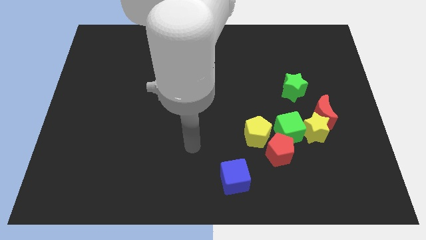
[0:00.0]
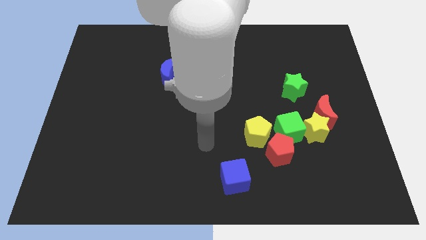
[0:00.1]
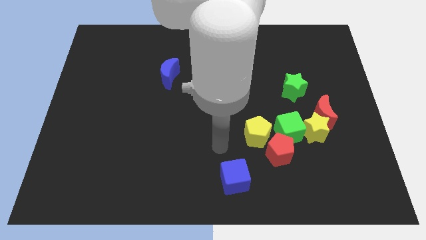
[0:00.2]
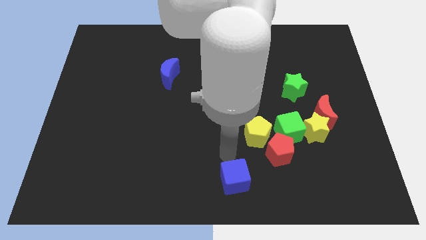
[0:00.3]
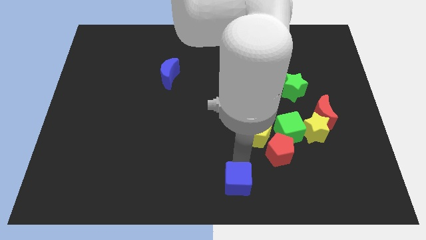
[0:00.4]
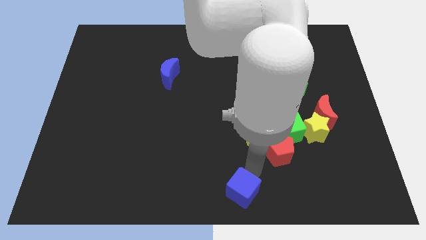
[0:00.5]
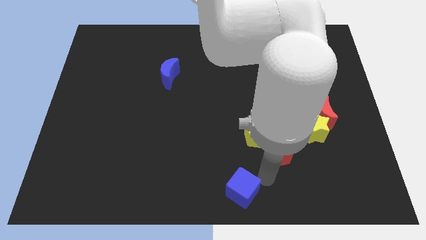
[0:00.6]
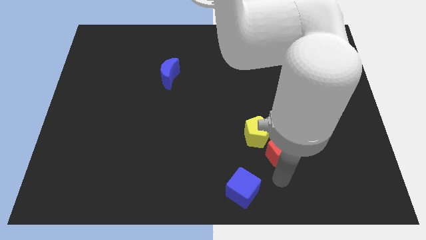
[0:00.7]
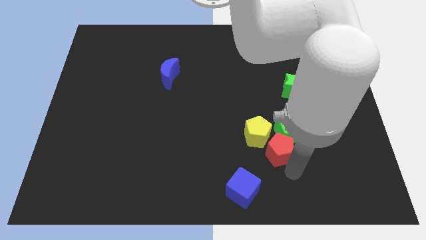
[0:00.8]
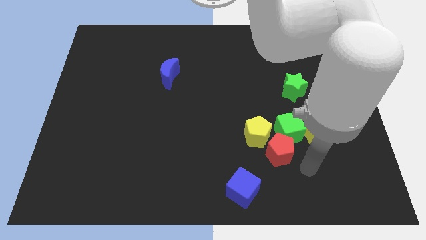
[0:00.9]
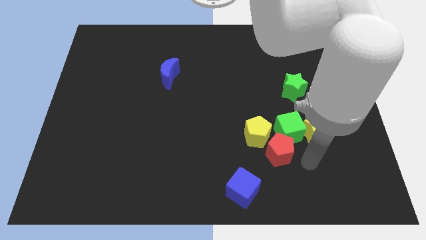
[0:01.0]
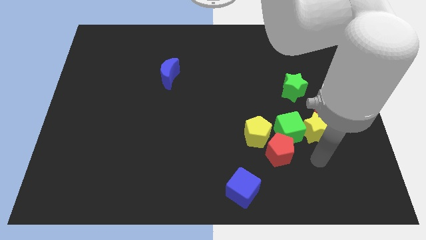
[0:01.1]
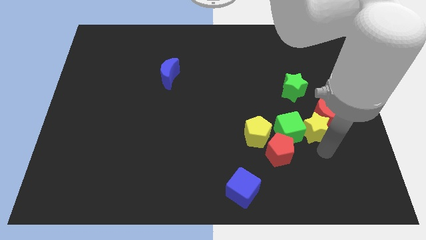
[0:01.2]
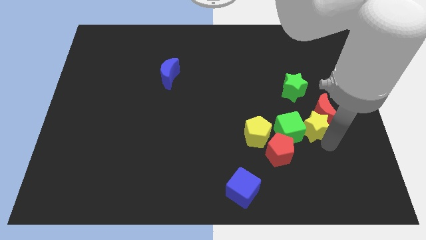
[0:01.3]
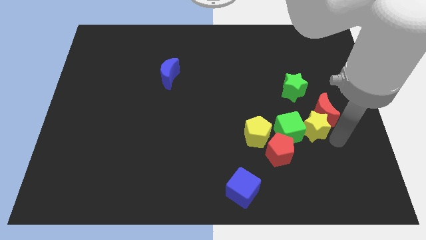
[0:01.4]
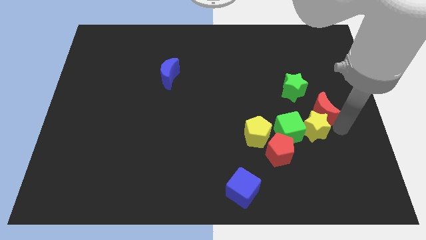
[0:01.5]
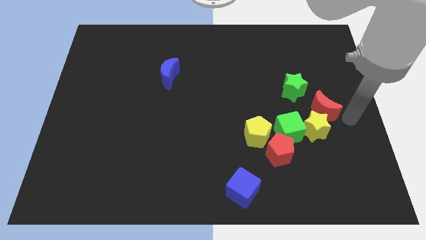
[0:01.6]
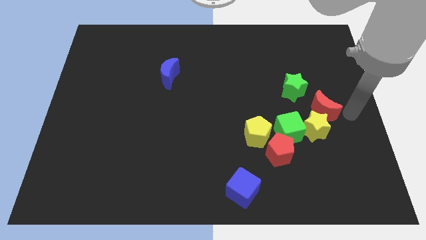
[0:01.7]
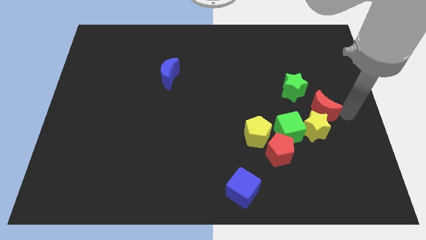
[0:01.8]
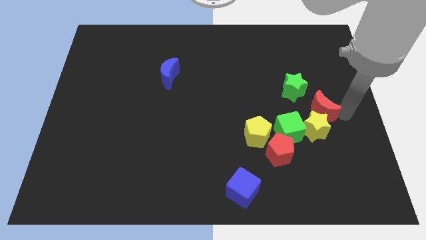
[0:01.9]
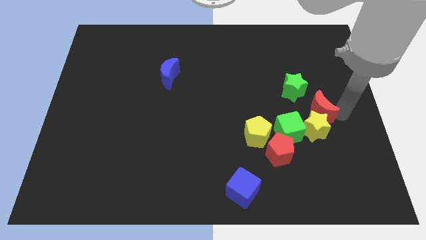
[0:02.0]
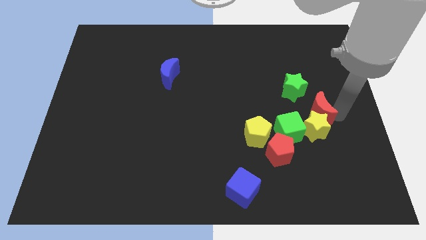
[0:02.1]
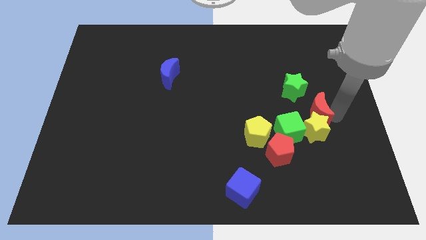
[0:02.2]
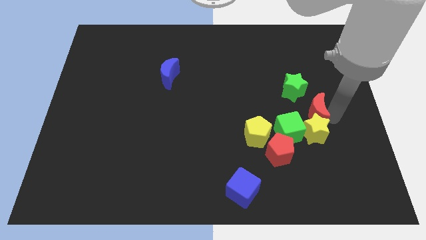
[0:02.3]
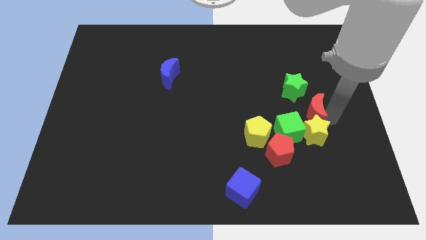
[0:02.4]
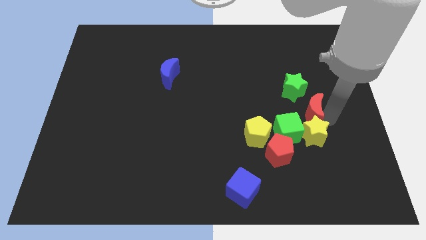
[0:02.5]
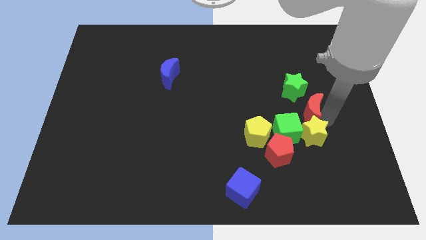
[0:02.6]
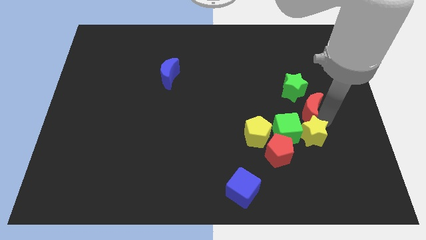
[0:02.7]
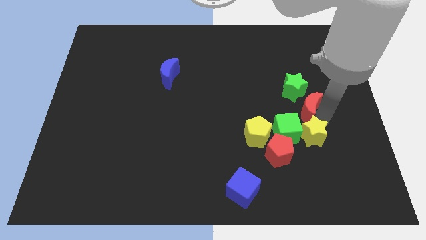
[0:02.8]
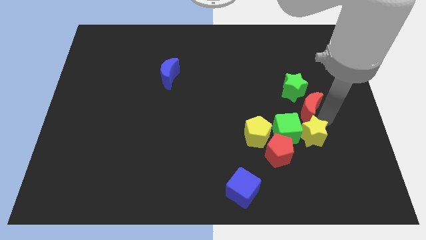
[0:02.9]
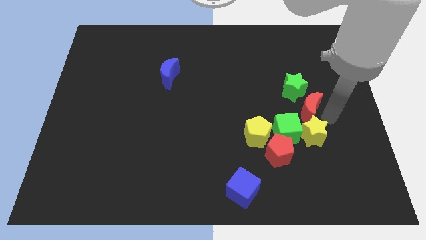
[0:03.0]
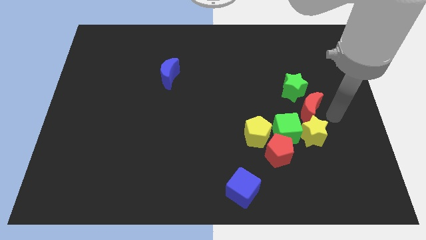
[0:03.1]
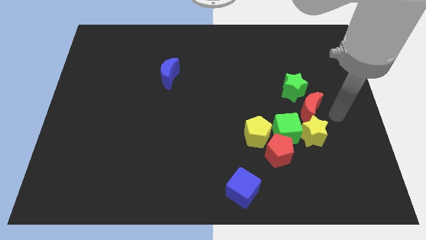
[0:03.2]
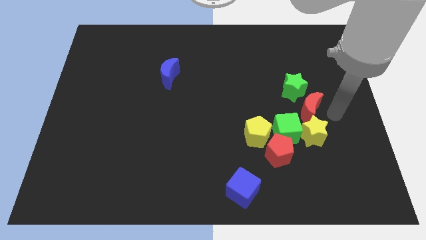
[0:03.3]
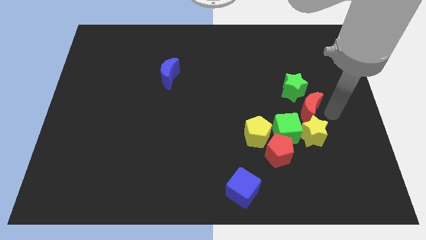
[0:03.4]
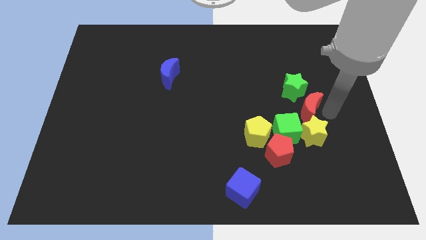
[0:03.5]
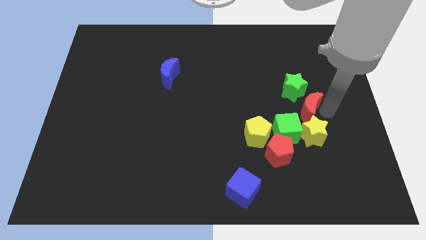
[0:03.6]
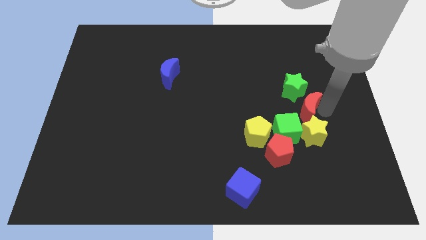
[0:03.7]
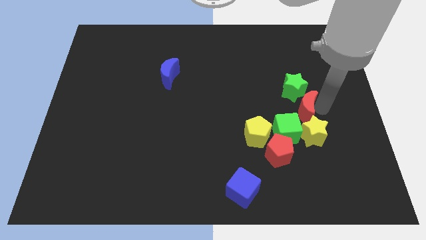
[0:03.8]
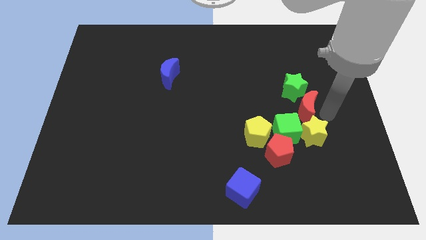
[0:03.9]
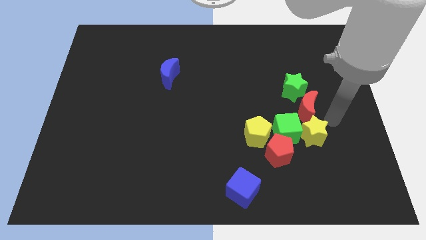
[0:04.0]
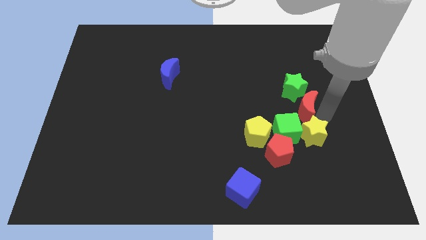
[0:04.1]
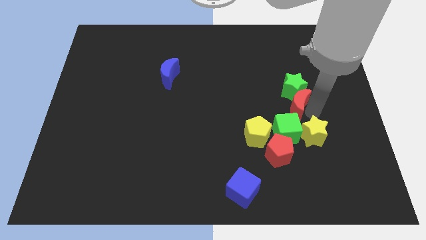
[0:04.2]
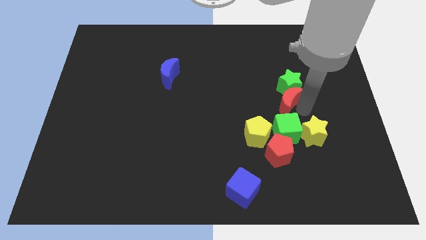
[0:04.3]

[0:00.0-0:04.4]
move the red moon diagonally upwards and to the left a little

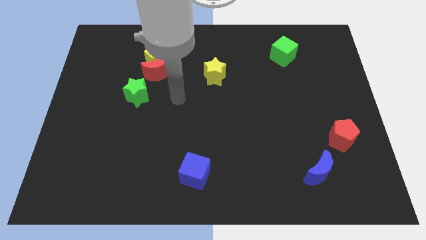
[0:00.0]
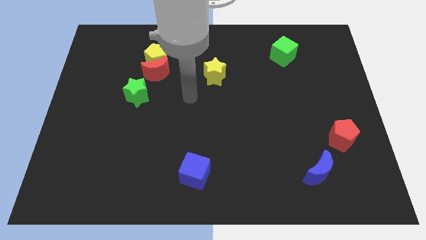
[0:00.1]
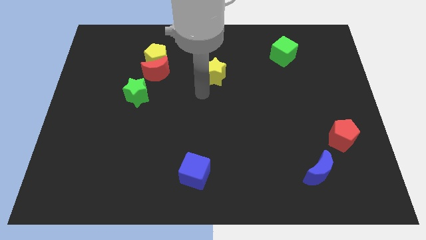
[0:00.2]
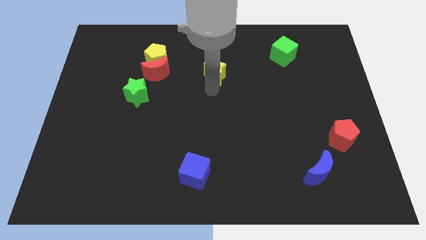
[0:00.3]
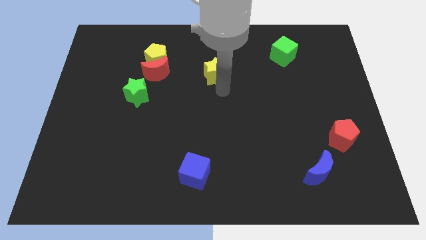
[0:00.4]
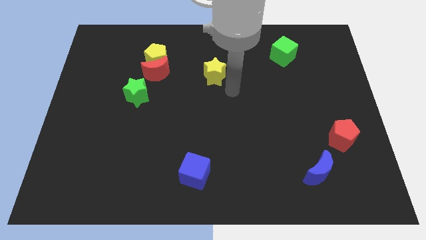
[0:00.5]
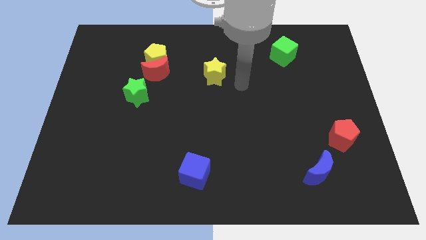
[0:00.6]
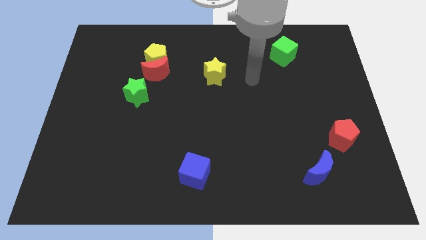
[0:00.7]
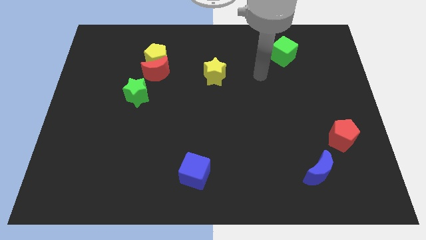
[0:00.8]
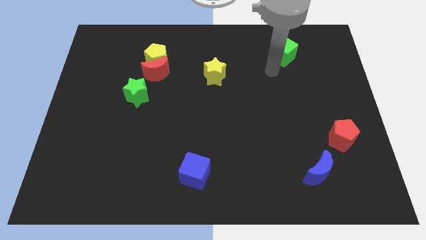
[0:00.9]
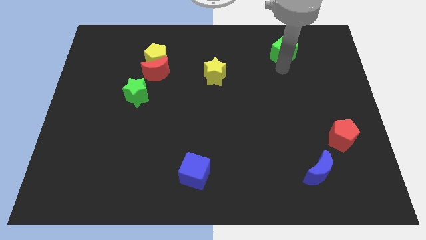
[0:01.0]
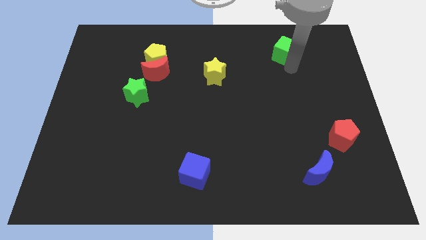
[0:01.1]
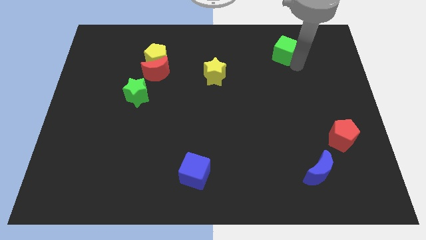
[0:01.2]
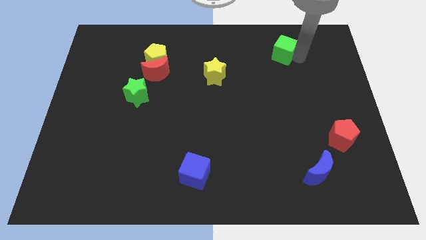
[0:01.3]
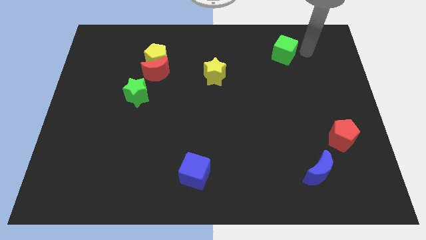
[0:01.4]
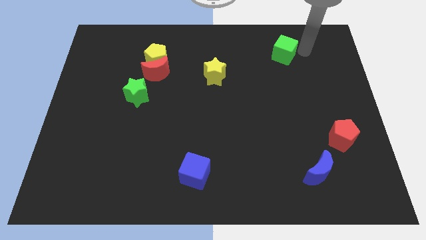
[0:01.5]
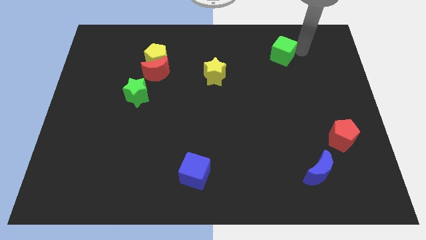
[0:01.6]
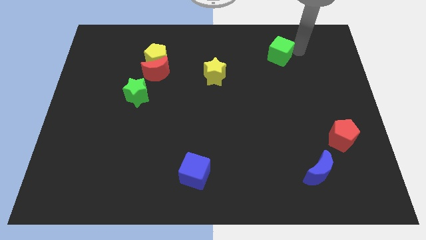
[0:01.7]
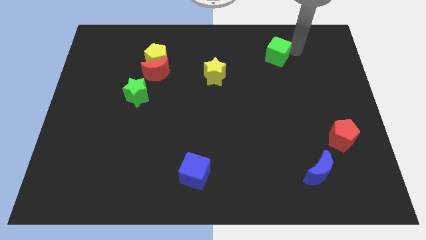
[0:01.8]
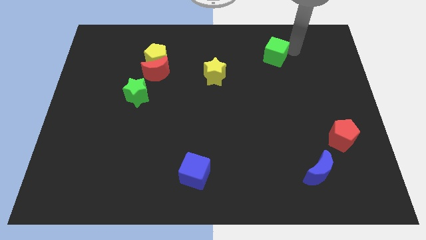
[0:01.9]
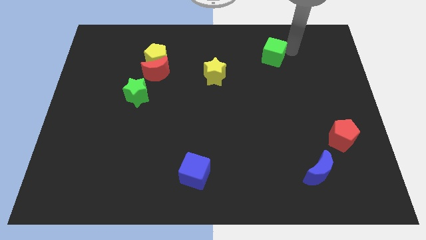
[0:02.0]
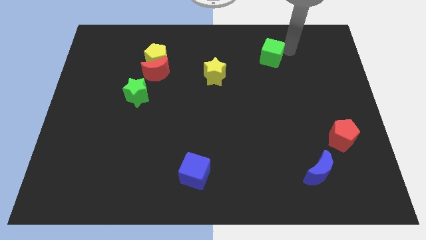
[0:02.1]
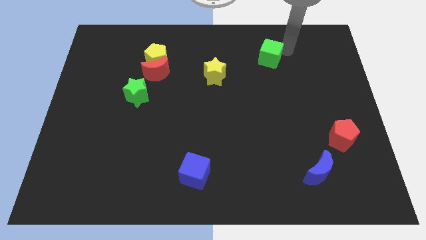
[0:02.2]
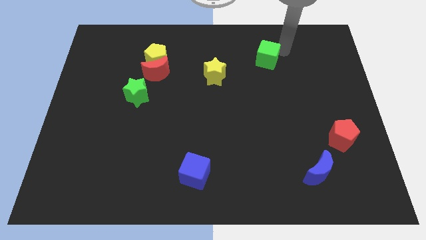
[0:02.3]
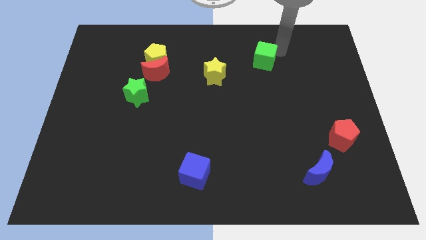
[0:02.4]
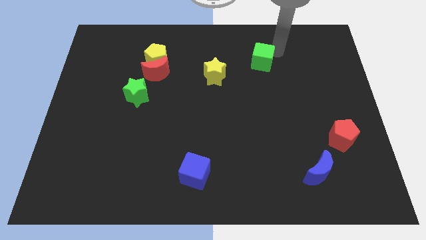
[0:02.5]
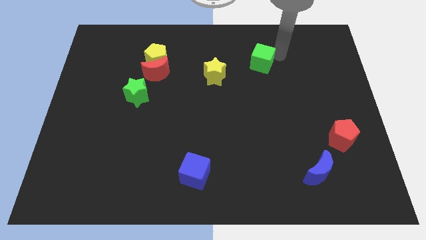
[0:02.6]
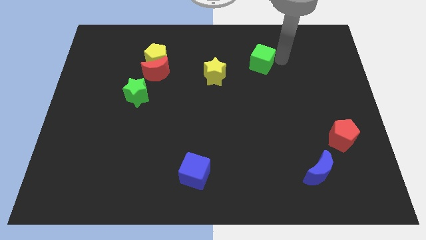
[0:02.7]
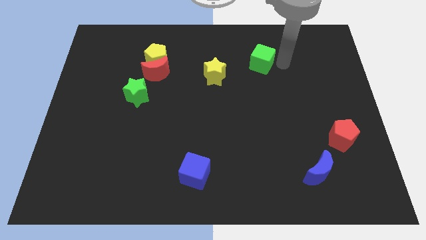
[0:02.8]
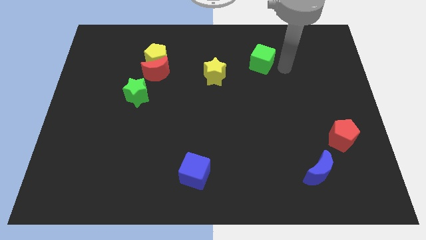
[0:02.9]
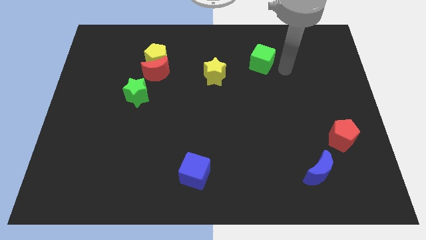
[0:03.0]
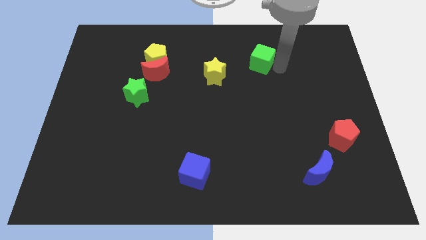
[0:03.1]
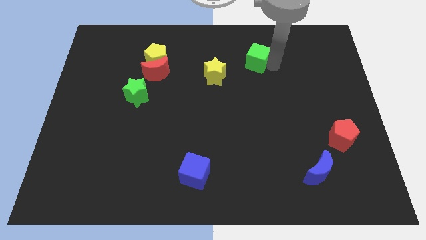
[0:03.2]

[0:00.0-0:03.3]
slightly slide the green cube to the left

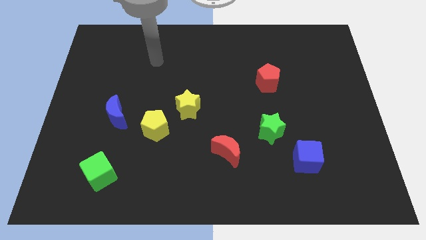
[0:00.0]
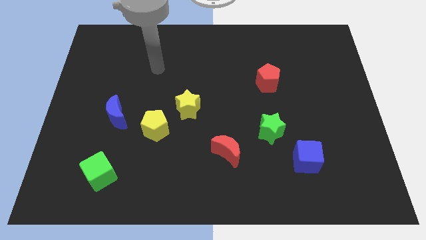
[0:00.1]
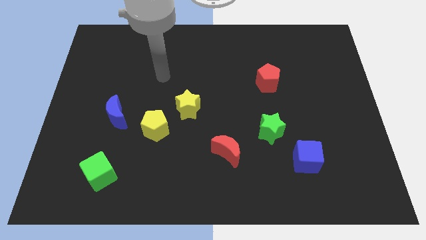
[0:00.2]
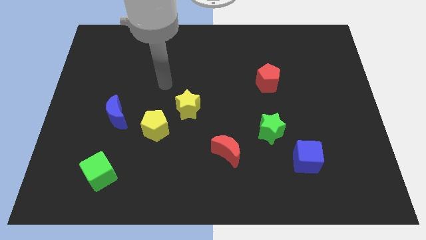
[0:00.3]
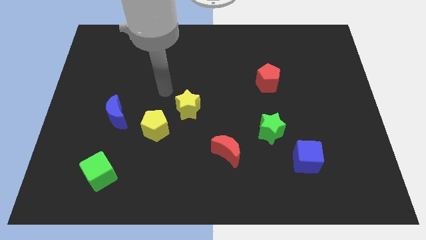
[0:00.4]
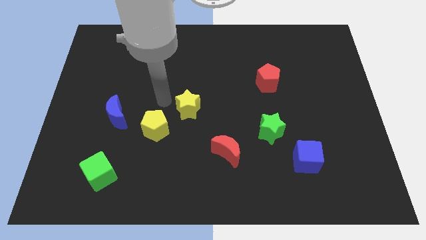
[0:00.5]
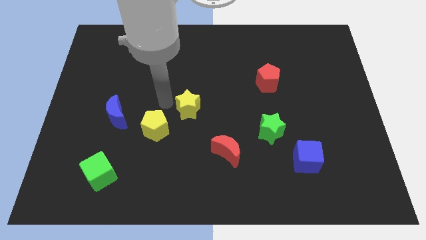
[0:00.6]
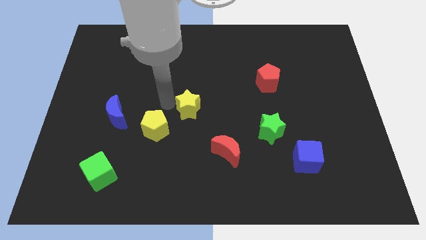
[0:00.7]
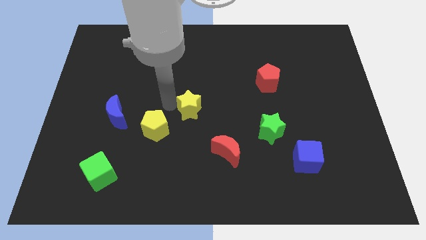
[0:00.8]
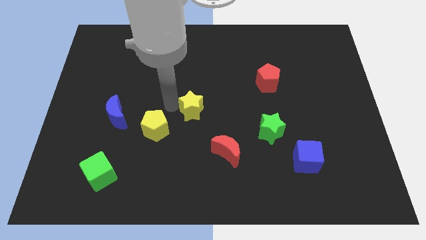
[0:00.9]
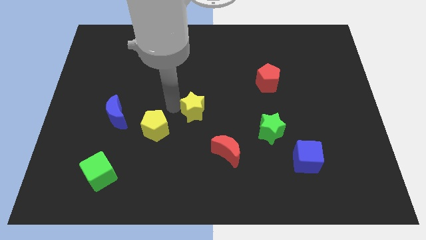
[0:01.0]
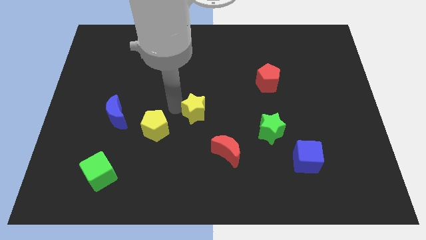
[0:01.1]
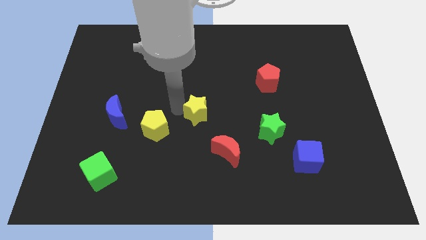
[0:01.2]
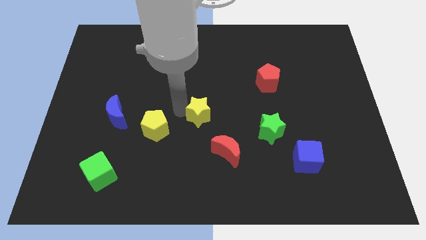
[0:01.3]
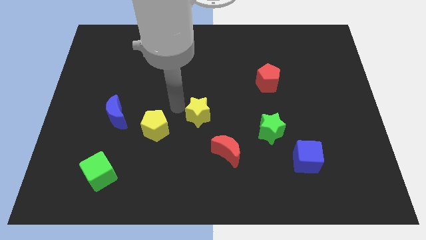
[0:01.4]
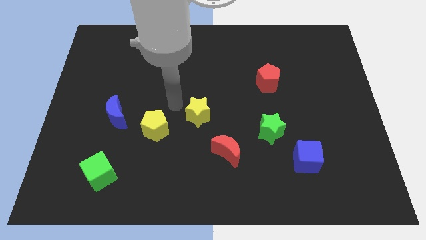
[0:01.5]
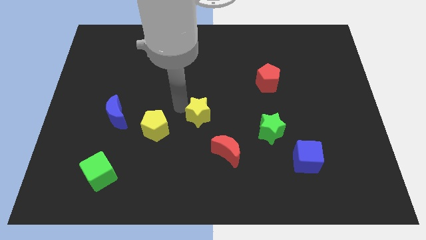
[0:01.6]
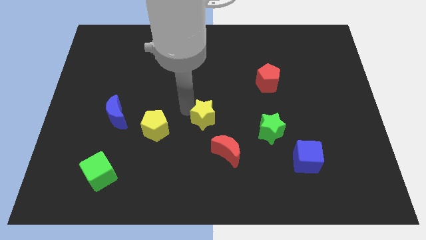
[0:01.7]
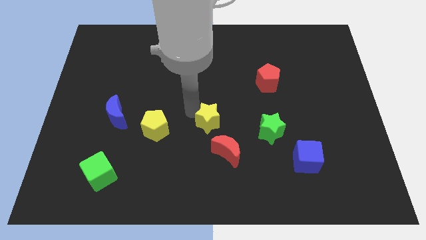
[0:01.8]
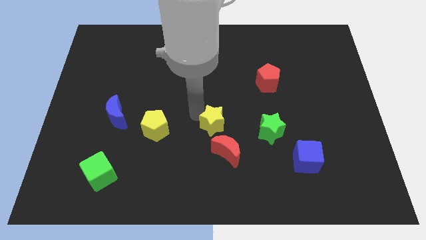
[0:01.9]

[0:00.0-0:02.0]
slide the yellow star slightly diagonally down and to the right
